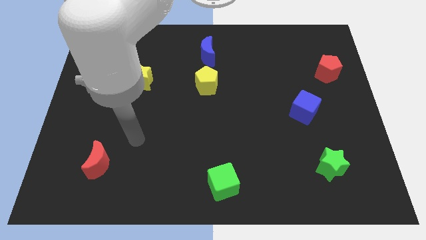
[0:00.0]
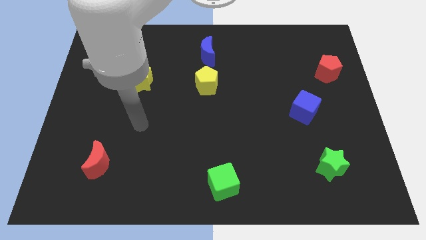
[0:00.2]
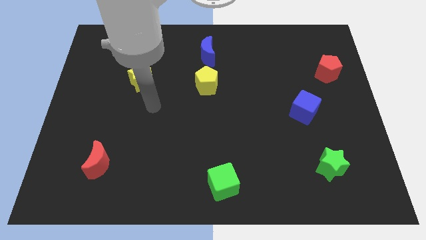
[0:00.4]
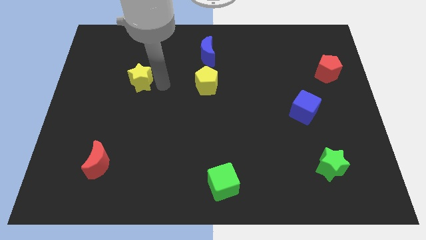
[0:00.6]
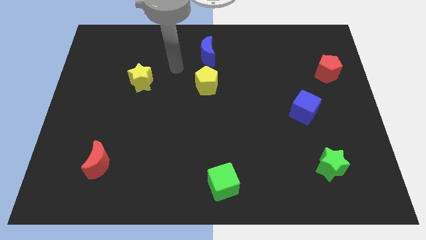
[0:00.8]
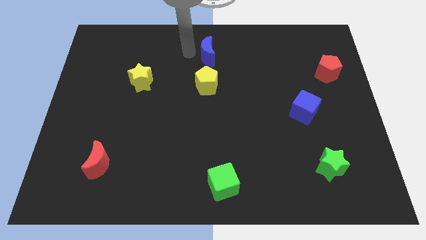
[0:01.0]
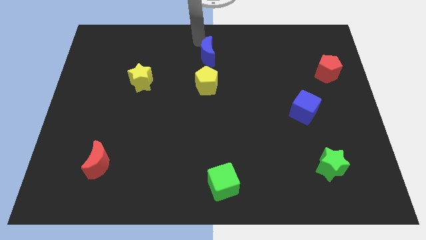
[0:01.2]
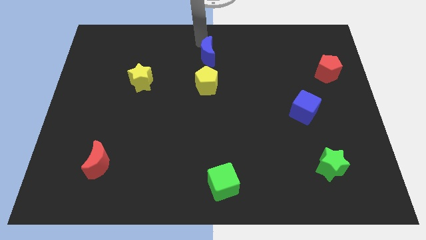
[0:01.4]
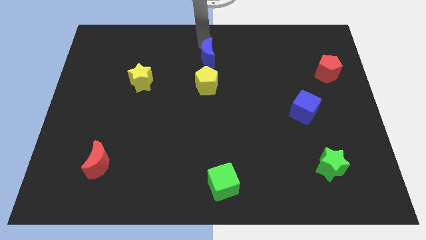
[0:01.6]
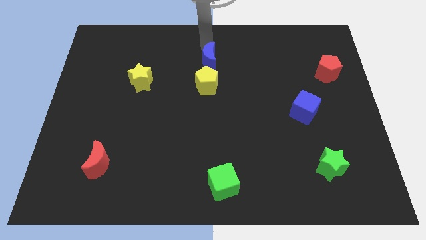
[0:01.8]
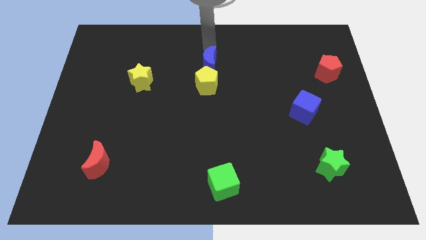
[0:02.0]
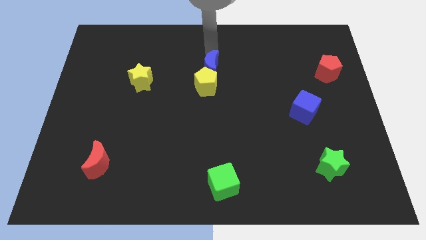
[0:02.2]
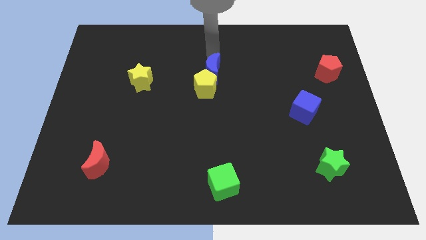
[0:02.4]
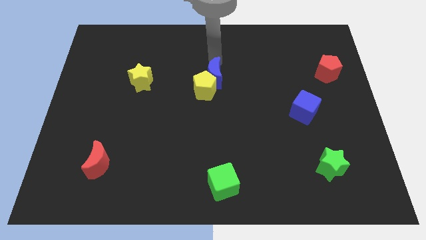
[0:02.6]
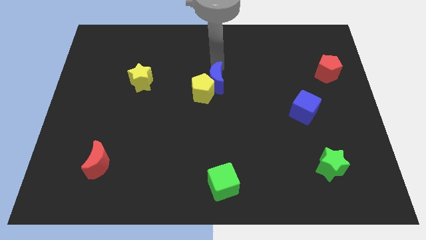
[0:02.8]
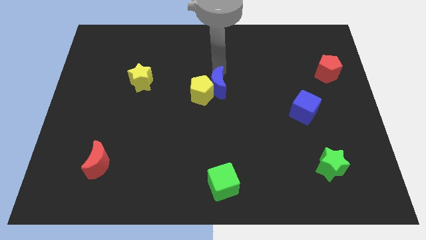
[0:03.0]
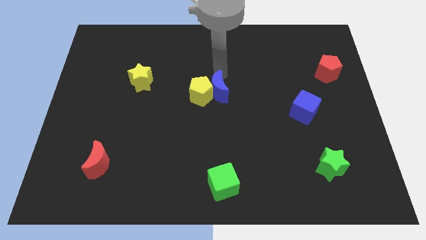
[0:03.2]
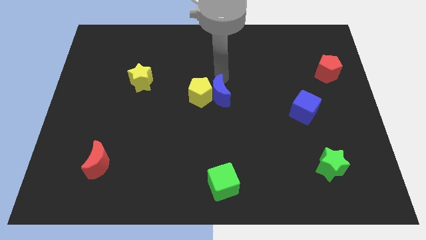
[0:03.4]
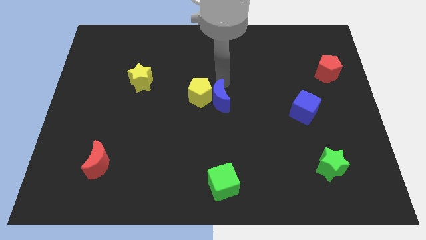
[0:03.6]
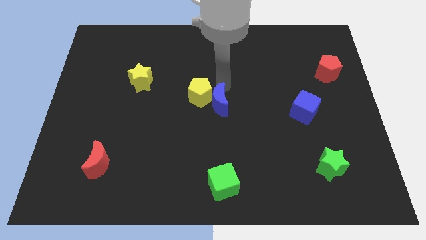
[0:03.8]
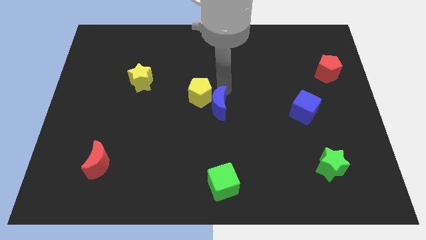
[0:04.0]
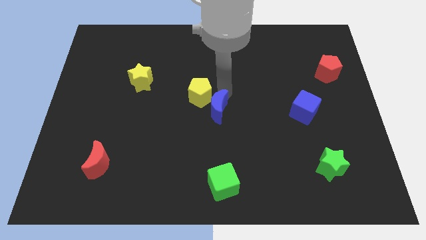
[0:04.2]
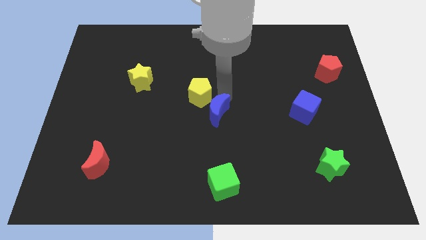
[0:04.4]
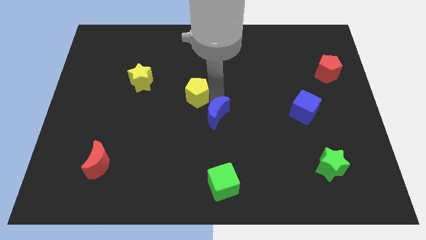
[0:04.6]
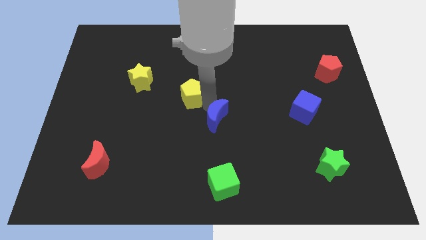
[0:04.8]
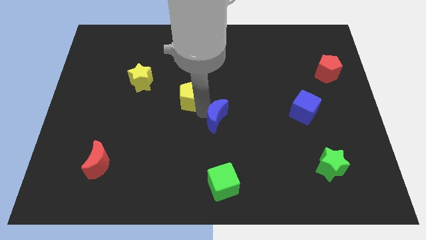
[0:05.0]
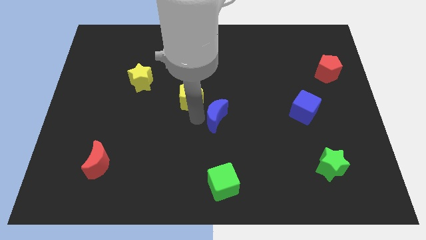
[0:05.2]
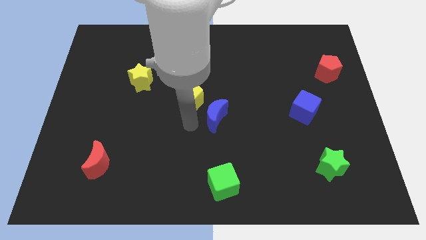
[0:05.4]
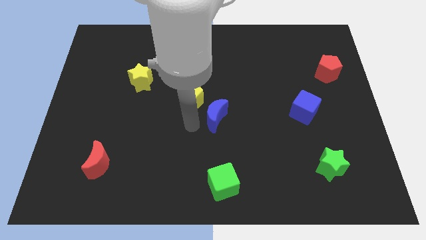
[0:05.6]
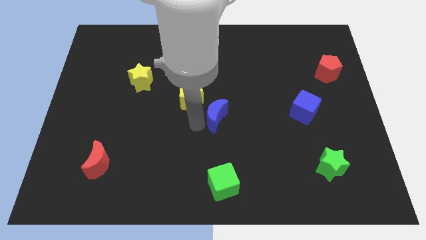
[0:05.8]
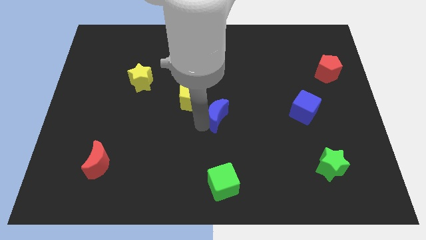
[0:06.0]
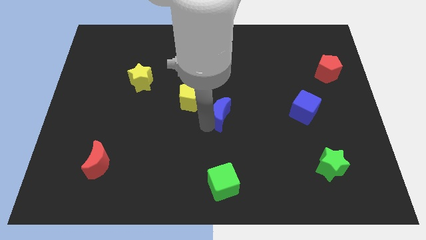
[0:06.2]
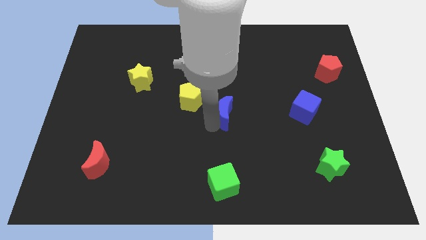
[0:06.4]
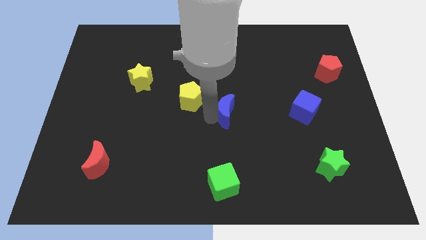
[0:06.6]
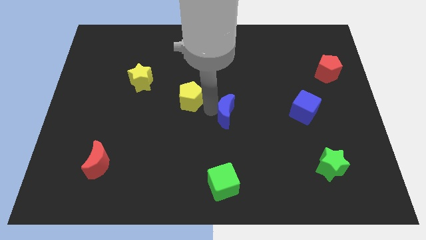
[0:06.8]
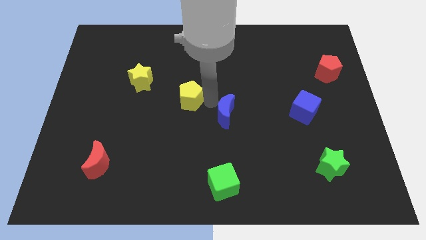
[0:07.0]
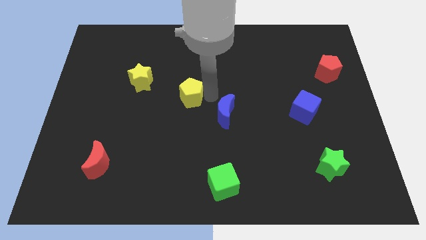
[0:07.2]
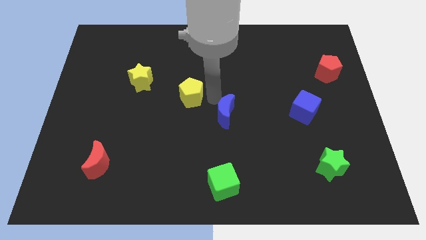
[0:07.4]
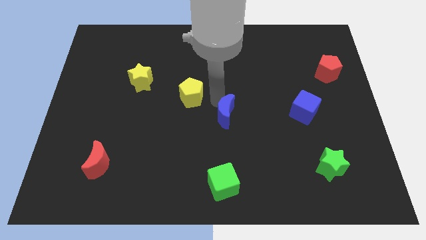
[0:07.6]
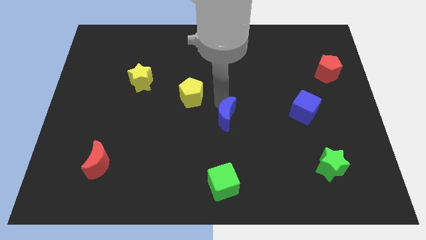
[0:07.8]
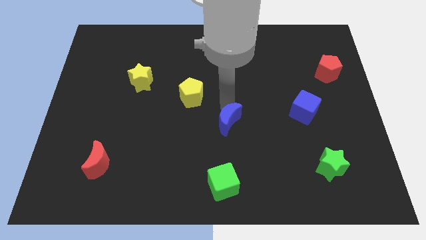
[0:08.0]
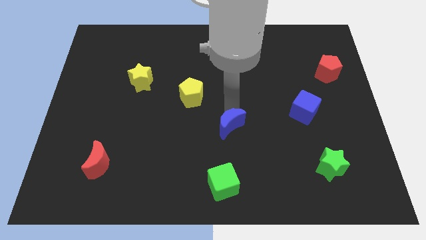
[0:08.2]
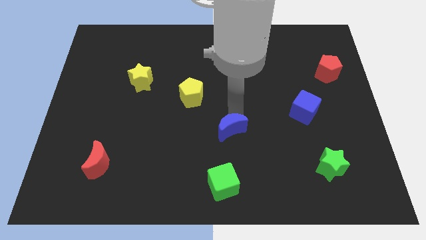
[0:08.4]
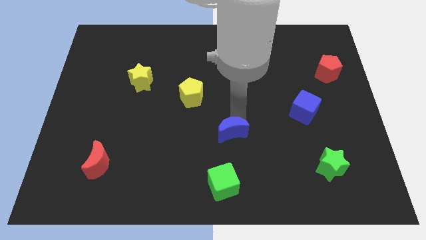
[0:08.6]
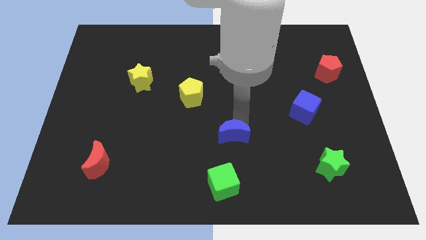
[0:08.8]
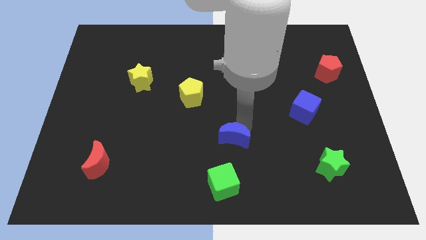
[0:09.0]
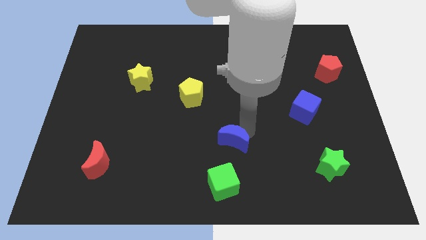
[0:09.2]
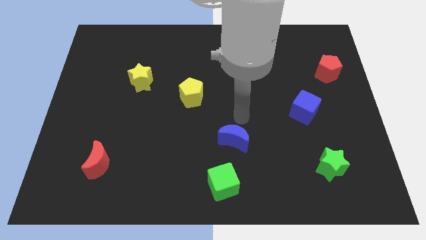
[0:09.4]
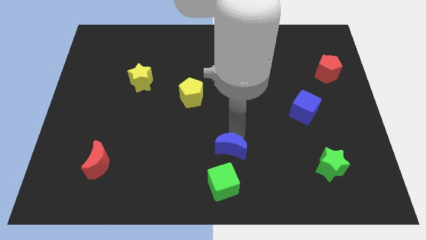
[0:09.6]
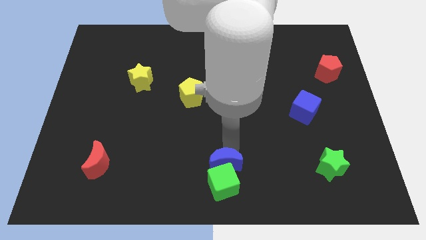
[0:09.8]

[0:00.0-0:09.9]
push the blue moon towards the green cube

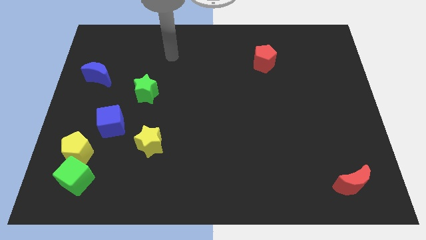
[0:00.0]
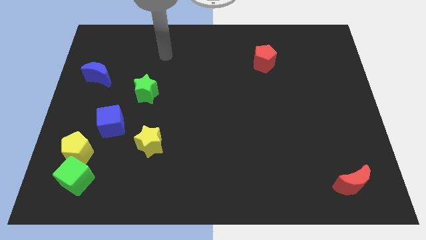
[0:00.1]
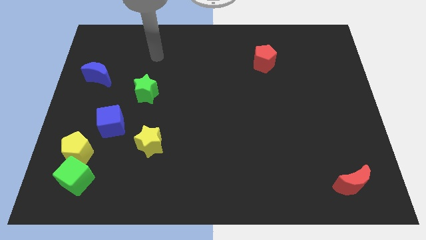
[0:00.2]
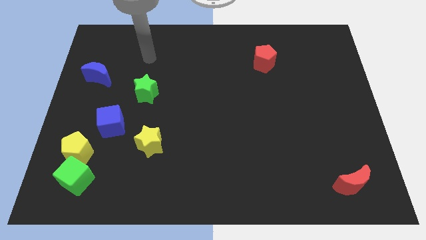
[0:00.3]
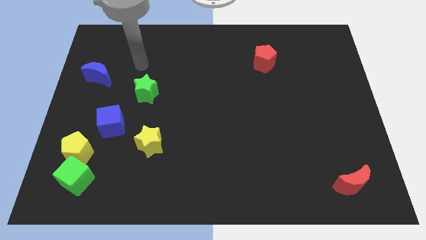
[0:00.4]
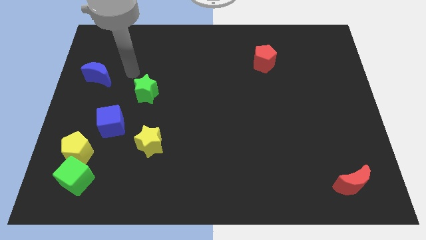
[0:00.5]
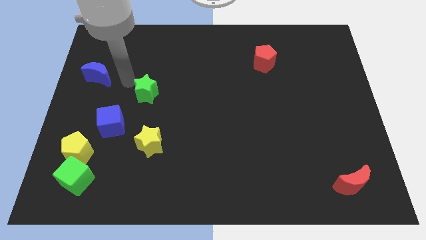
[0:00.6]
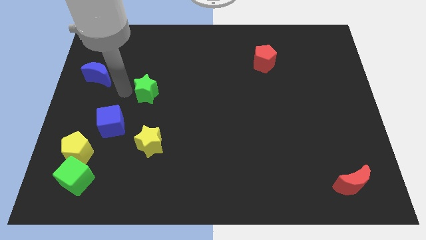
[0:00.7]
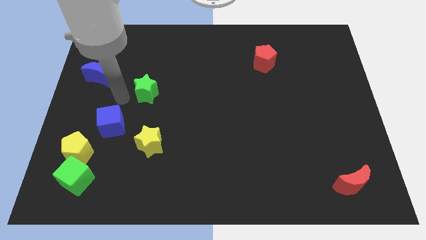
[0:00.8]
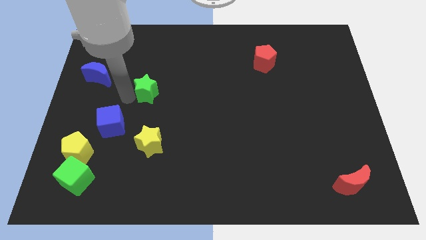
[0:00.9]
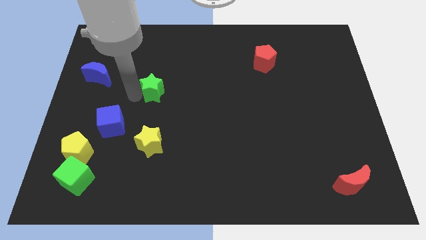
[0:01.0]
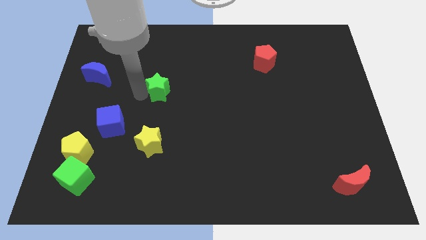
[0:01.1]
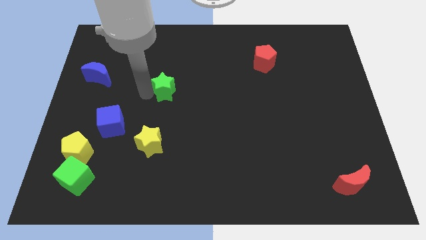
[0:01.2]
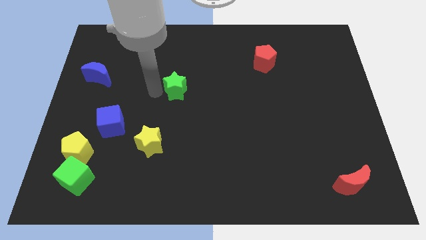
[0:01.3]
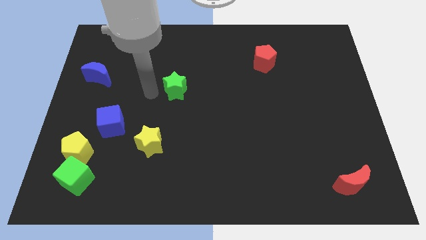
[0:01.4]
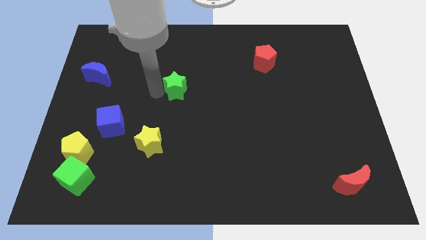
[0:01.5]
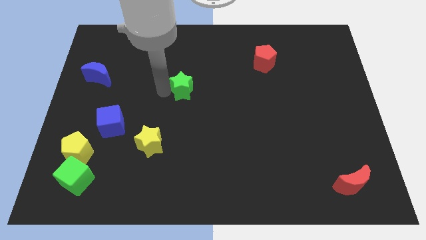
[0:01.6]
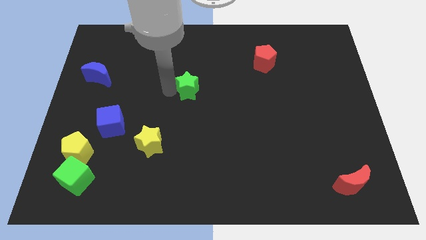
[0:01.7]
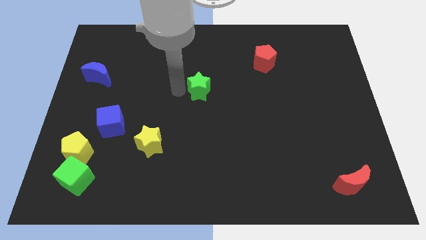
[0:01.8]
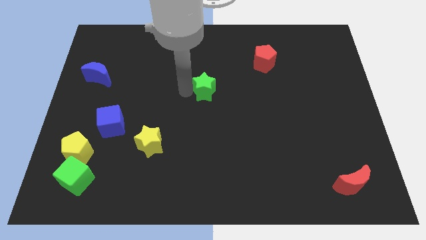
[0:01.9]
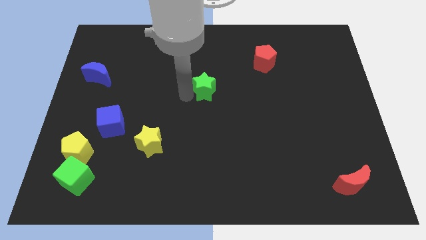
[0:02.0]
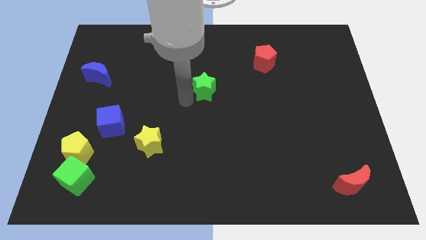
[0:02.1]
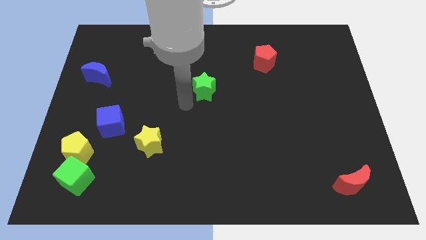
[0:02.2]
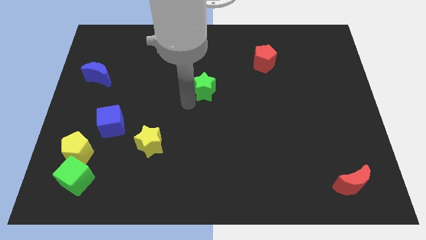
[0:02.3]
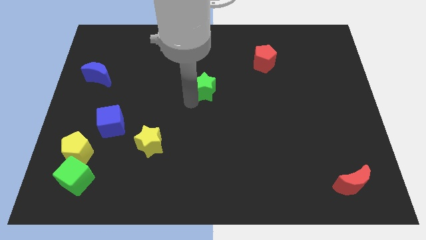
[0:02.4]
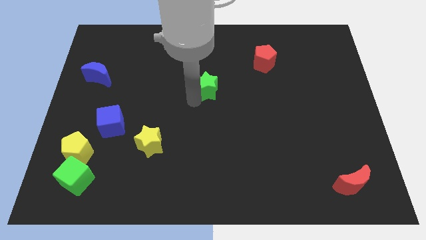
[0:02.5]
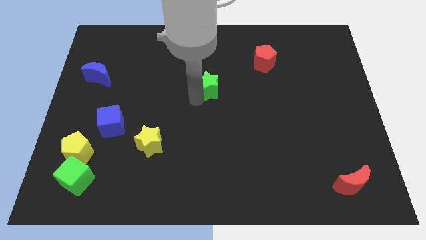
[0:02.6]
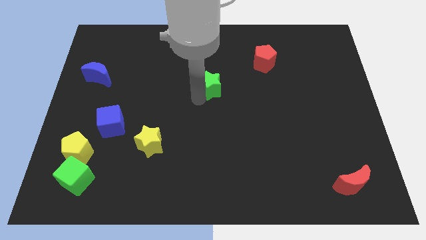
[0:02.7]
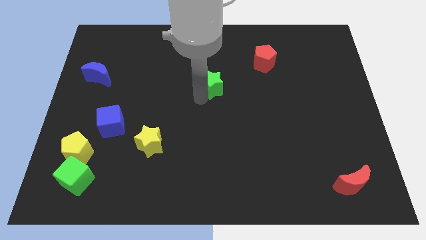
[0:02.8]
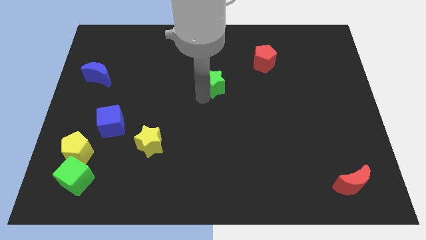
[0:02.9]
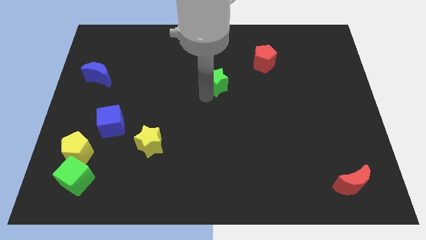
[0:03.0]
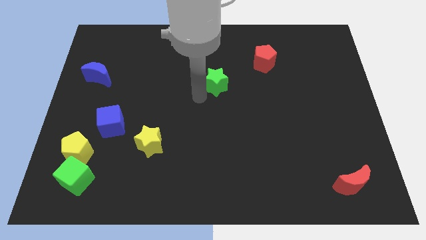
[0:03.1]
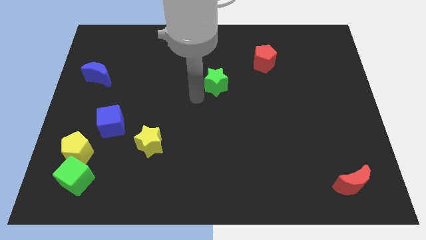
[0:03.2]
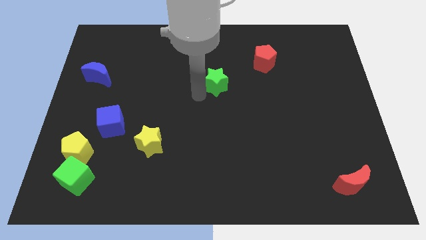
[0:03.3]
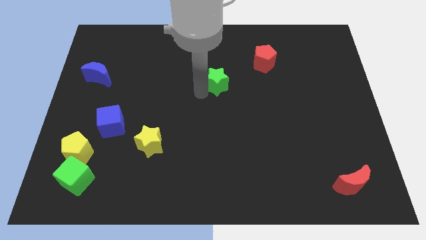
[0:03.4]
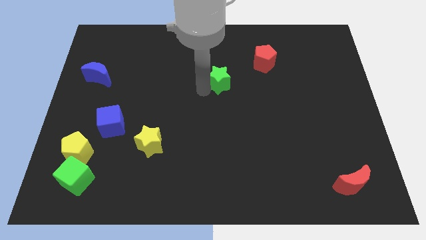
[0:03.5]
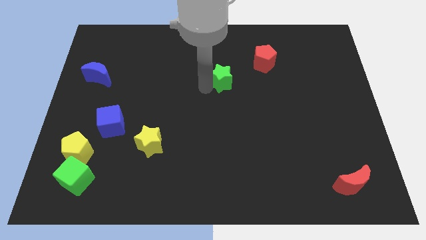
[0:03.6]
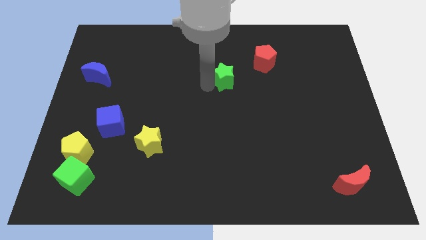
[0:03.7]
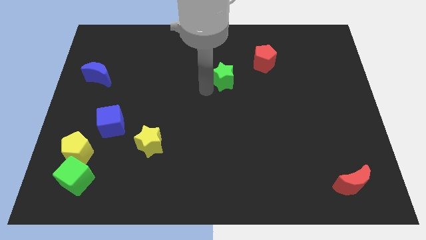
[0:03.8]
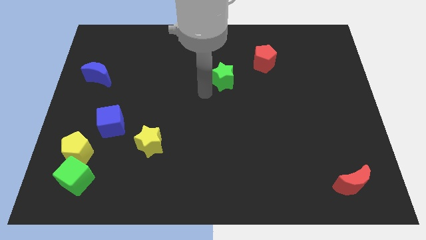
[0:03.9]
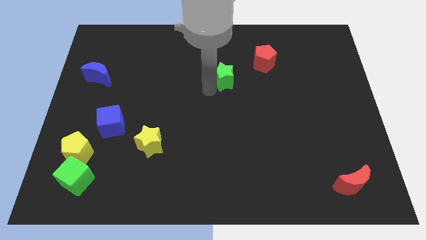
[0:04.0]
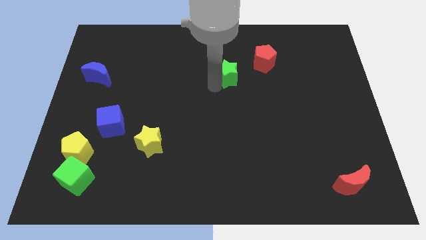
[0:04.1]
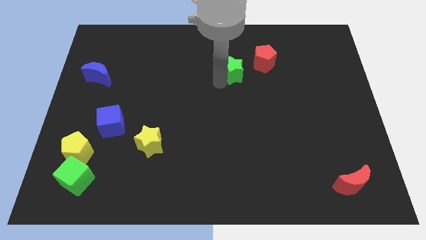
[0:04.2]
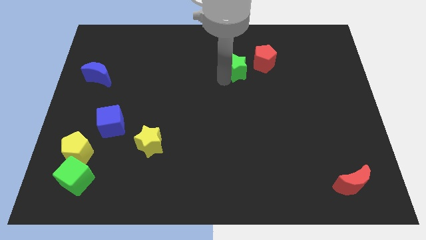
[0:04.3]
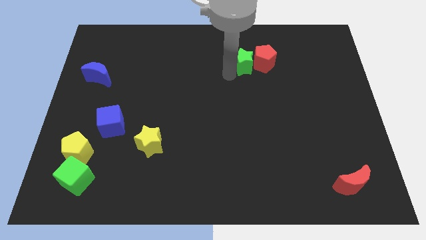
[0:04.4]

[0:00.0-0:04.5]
move the green star close to the red pentagon
